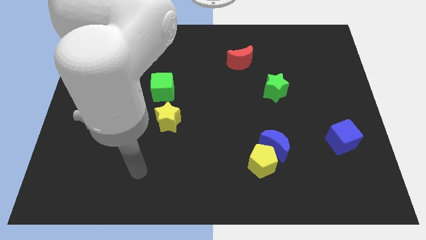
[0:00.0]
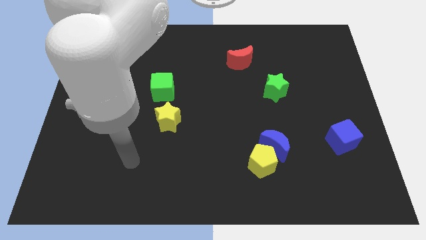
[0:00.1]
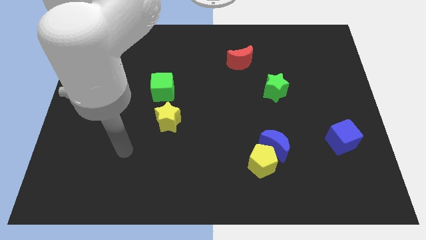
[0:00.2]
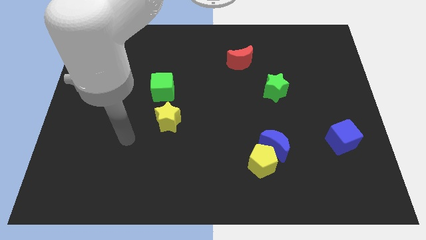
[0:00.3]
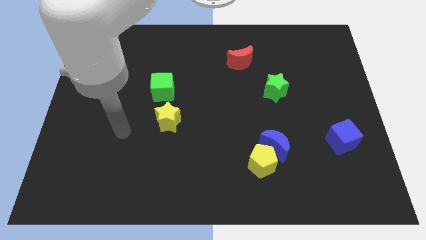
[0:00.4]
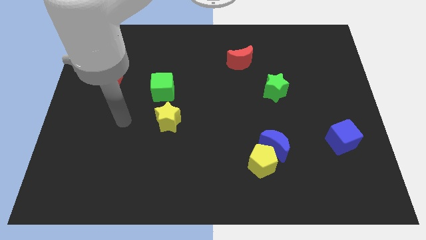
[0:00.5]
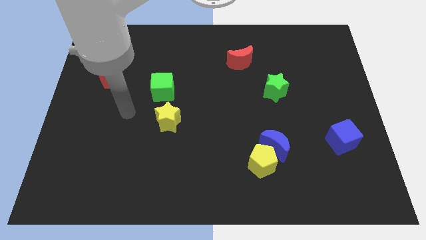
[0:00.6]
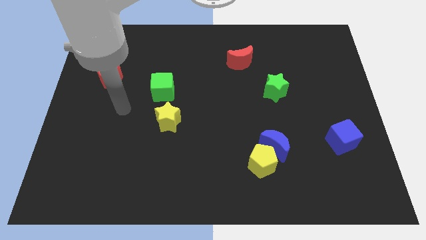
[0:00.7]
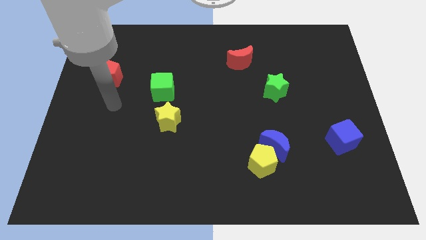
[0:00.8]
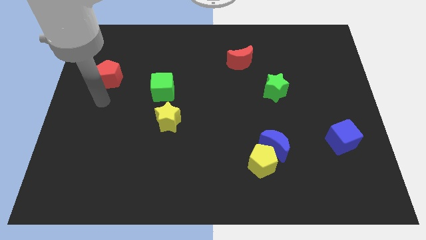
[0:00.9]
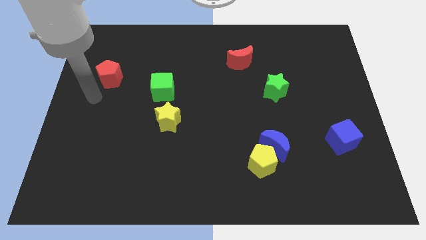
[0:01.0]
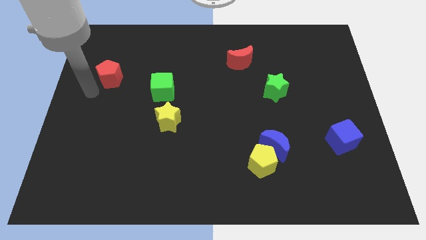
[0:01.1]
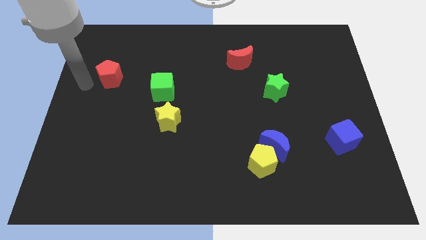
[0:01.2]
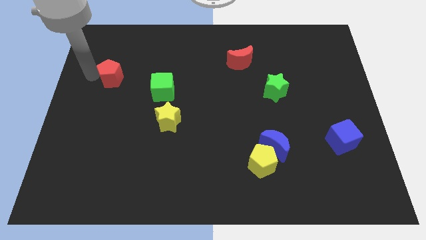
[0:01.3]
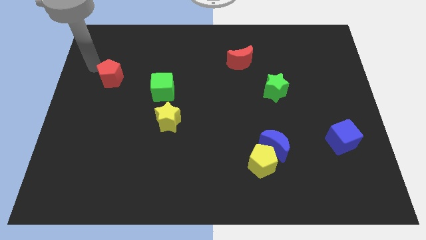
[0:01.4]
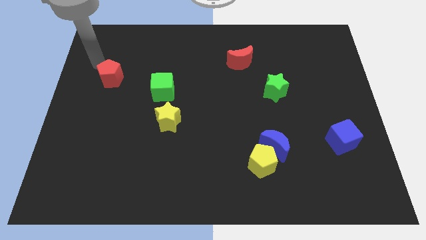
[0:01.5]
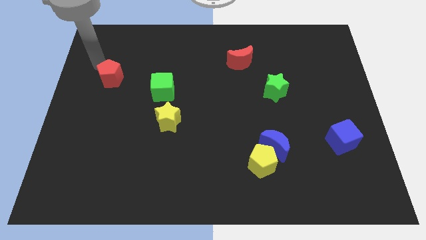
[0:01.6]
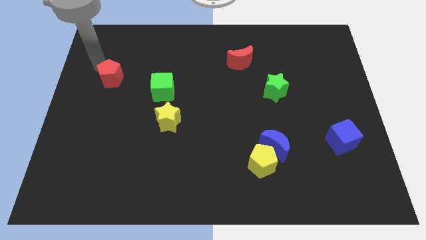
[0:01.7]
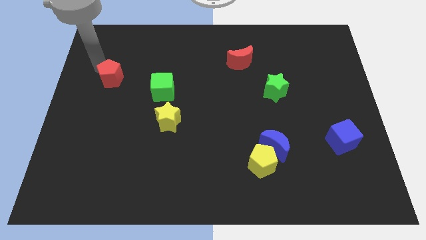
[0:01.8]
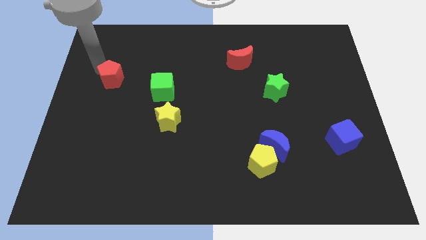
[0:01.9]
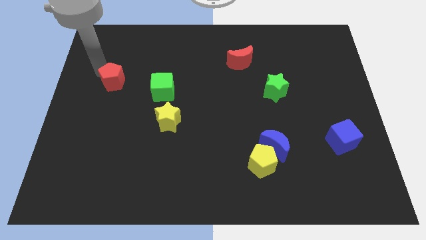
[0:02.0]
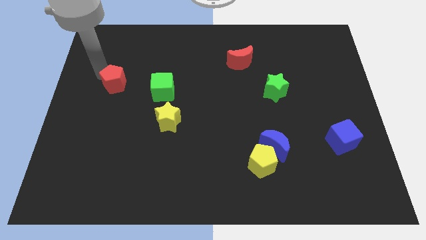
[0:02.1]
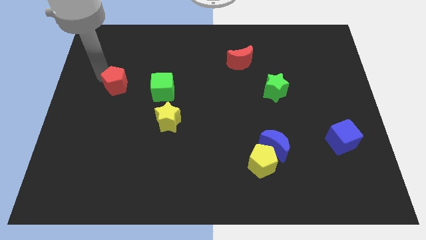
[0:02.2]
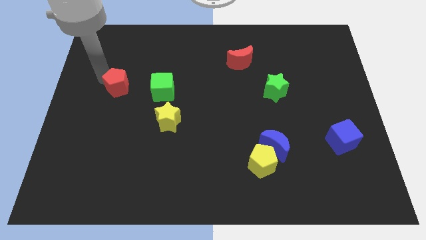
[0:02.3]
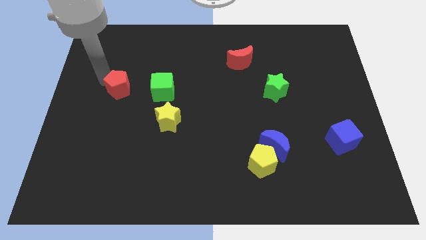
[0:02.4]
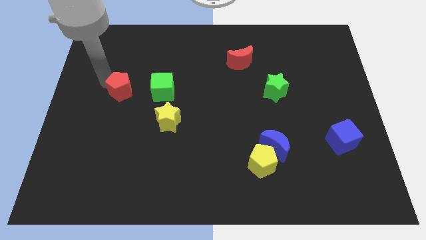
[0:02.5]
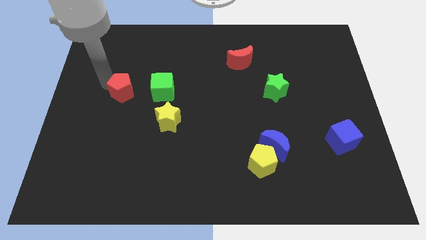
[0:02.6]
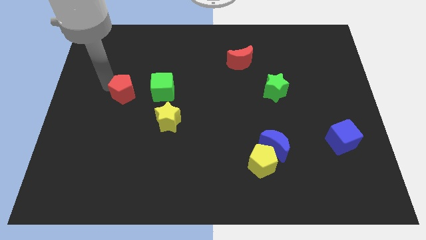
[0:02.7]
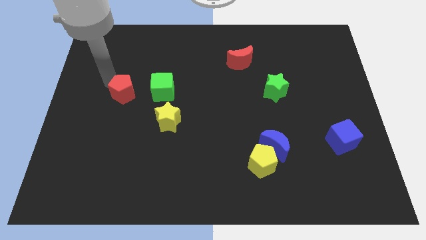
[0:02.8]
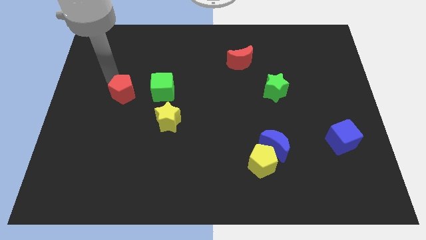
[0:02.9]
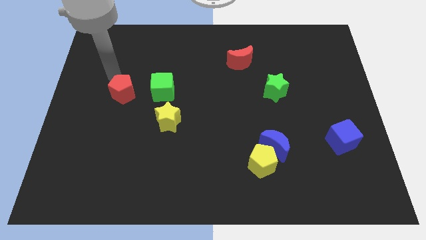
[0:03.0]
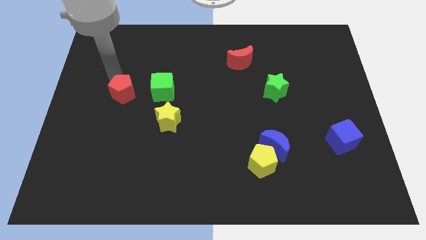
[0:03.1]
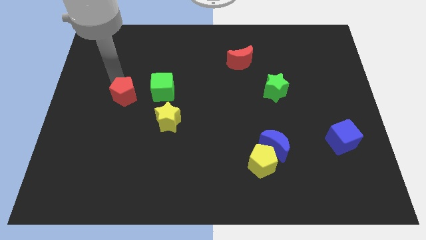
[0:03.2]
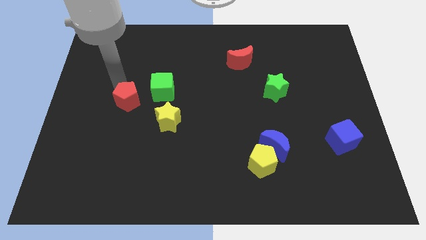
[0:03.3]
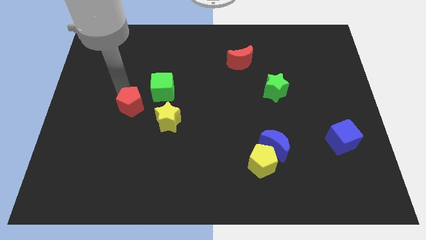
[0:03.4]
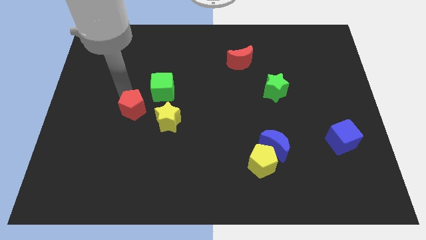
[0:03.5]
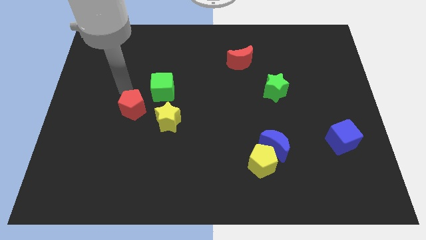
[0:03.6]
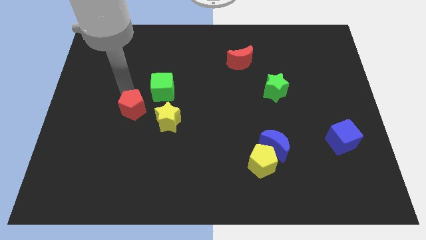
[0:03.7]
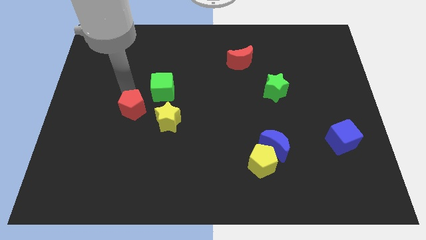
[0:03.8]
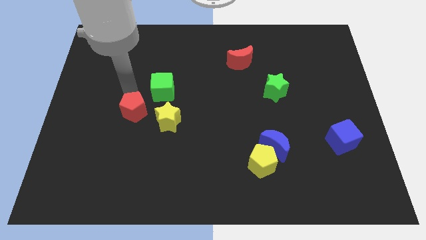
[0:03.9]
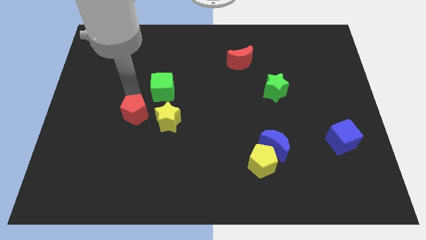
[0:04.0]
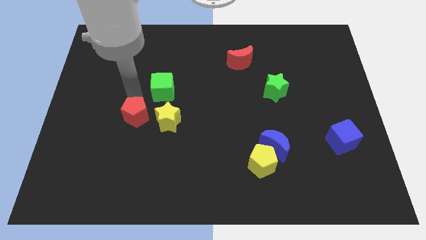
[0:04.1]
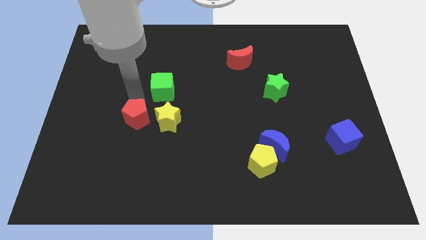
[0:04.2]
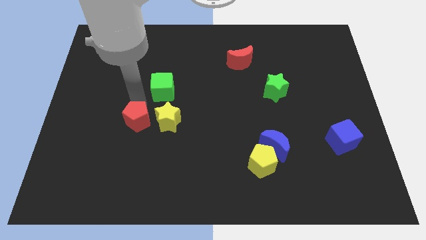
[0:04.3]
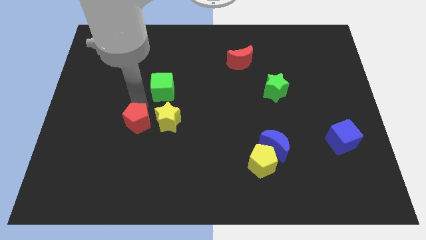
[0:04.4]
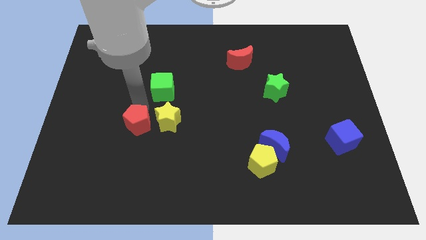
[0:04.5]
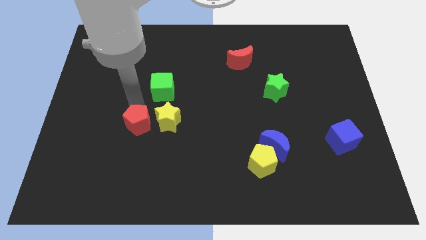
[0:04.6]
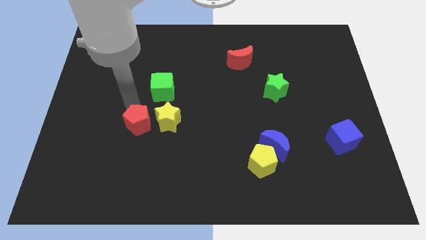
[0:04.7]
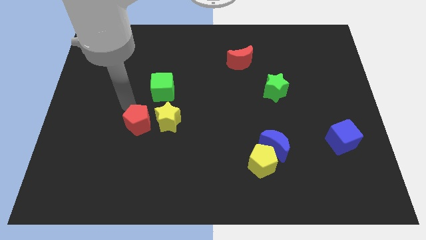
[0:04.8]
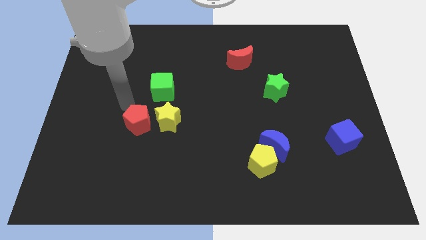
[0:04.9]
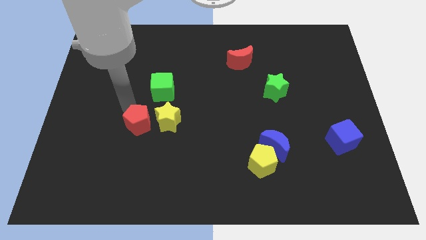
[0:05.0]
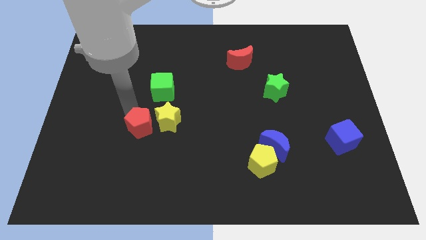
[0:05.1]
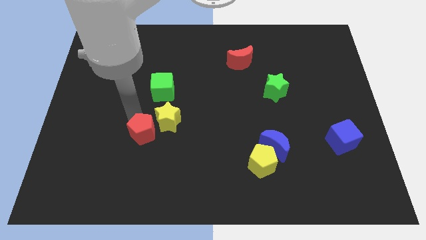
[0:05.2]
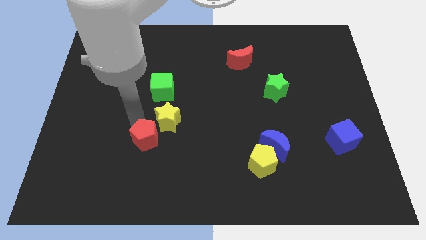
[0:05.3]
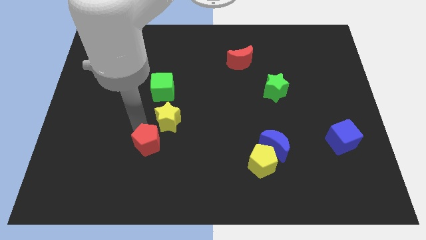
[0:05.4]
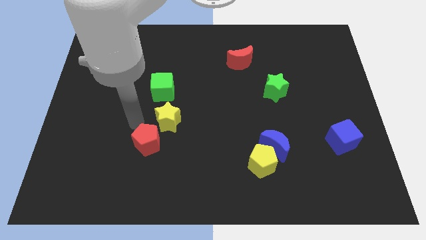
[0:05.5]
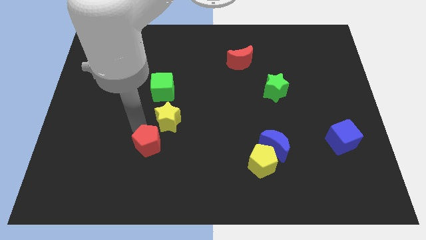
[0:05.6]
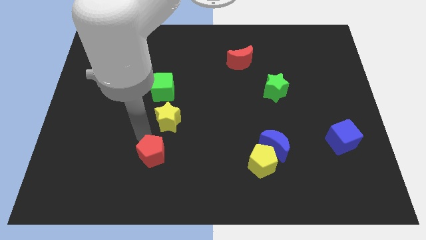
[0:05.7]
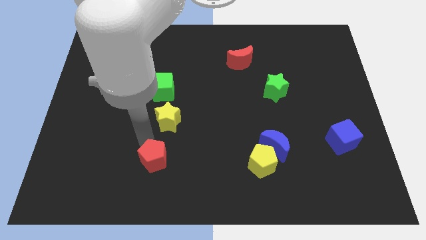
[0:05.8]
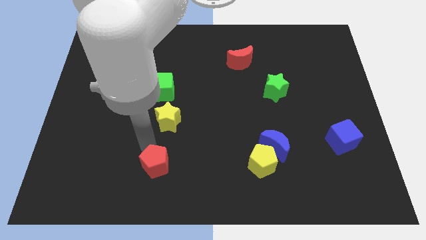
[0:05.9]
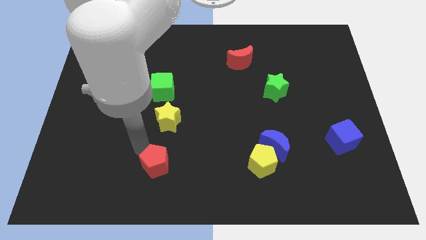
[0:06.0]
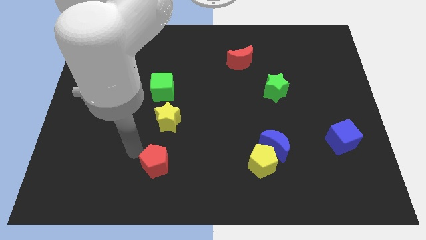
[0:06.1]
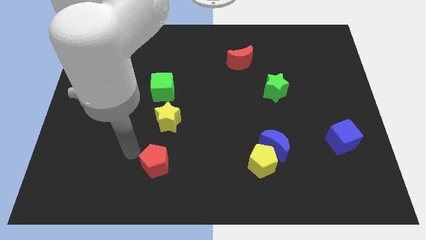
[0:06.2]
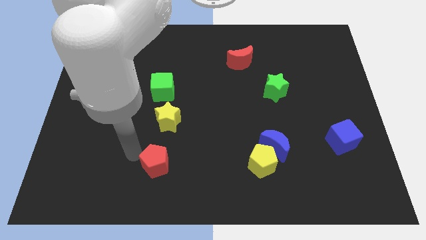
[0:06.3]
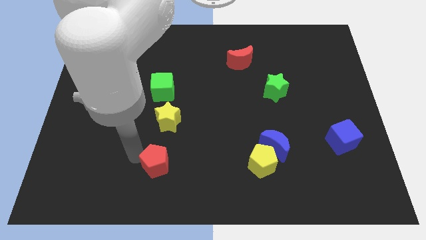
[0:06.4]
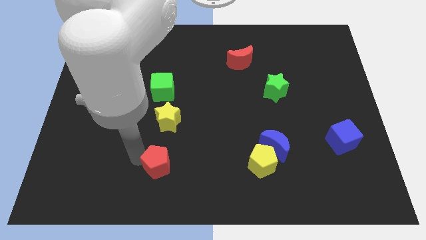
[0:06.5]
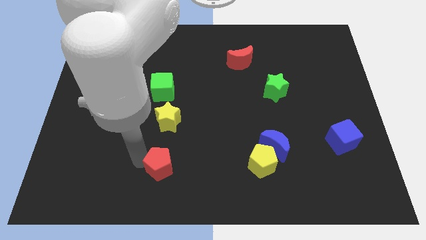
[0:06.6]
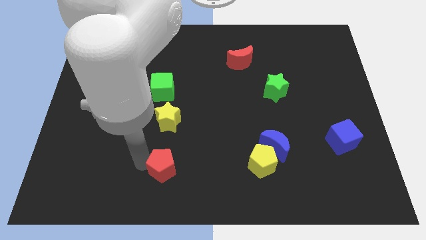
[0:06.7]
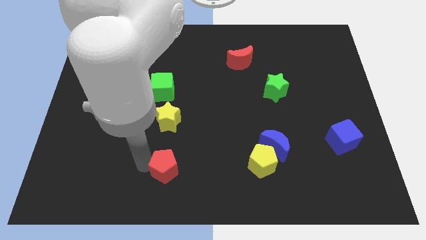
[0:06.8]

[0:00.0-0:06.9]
slide the red pentagon to the bottom

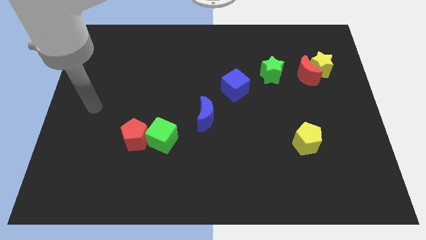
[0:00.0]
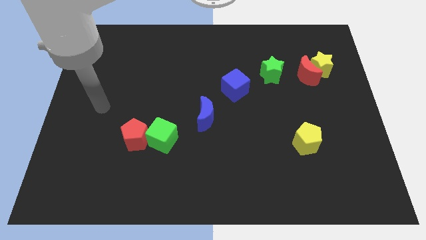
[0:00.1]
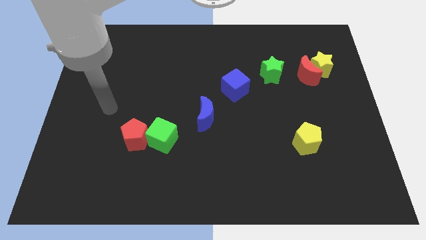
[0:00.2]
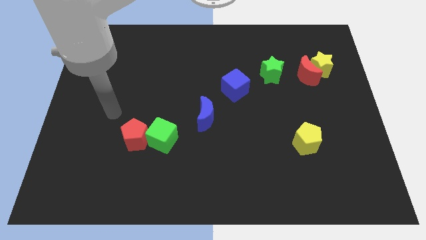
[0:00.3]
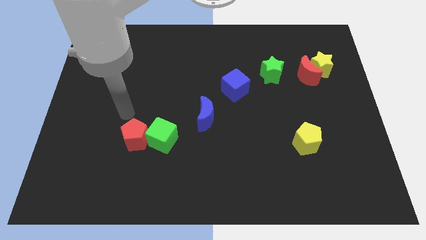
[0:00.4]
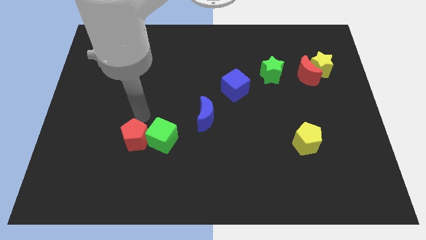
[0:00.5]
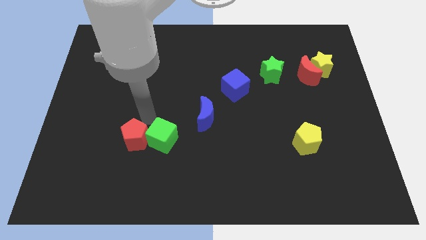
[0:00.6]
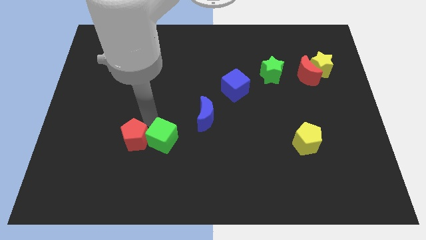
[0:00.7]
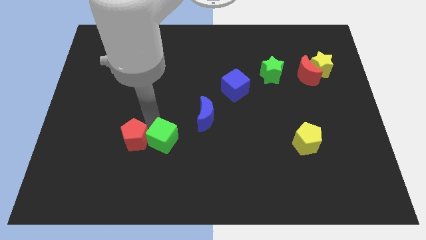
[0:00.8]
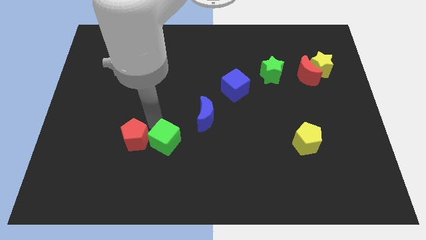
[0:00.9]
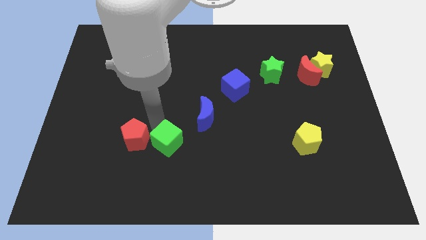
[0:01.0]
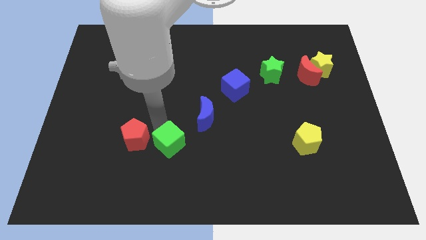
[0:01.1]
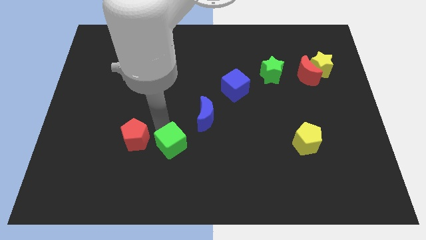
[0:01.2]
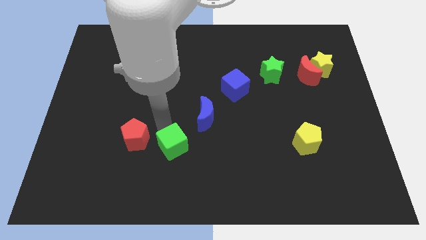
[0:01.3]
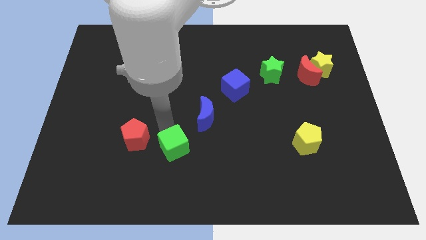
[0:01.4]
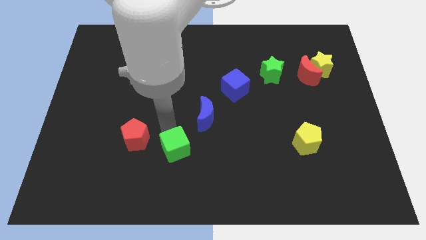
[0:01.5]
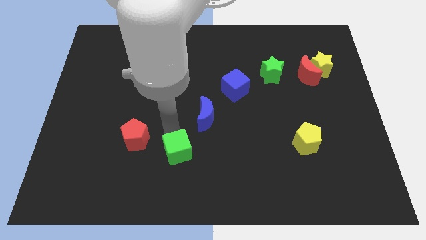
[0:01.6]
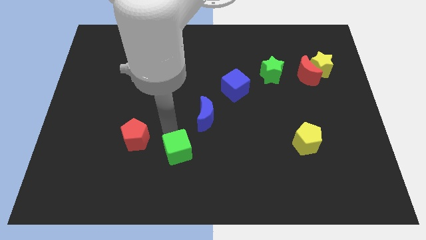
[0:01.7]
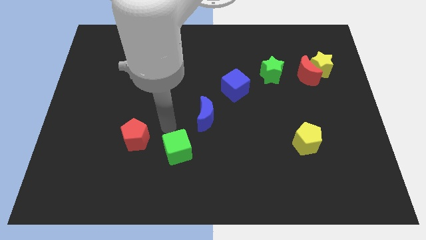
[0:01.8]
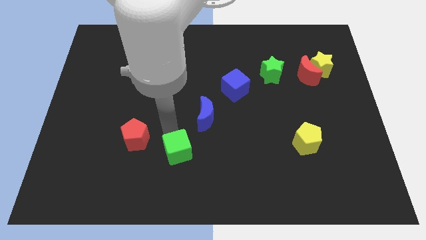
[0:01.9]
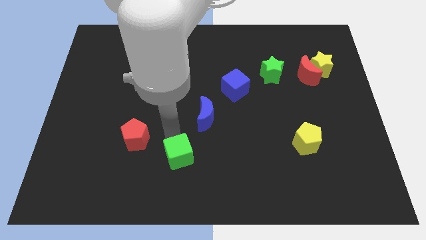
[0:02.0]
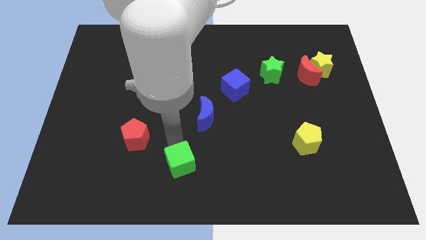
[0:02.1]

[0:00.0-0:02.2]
push the green cube to the bottom side
